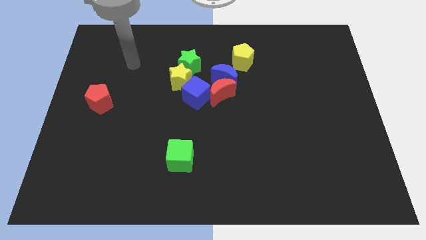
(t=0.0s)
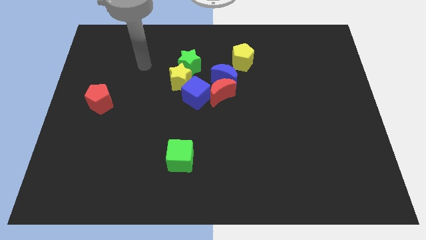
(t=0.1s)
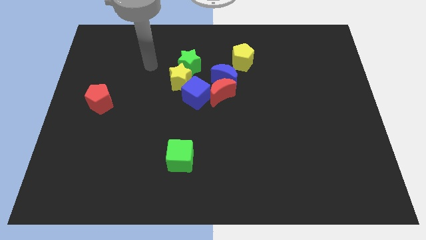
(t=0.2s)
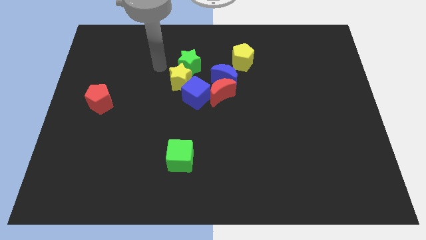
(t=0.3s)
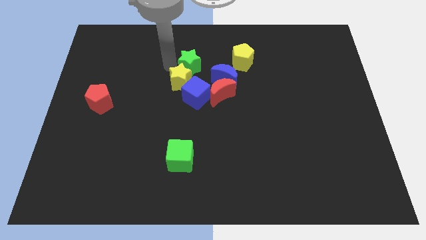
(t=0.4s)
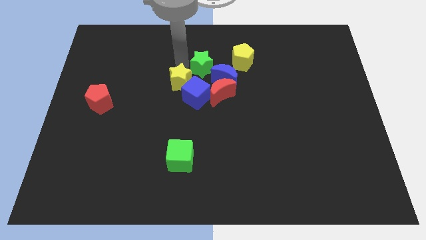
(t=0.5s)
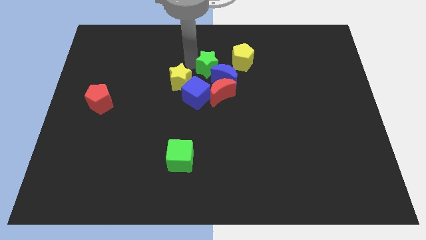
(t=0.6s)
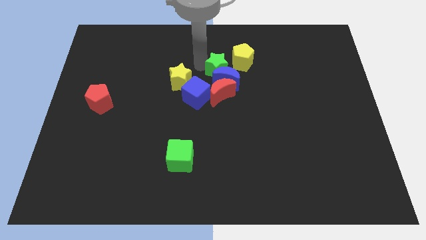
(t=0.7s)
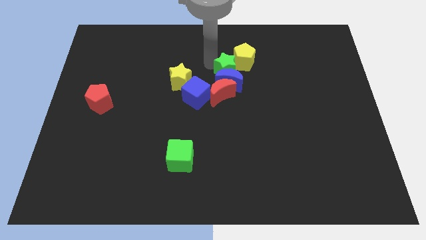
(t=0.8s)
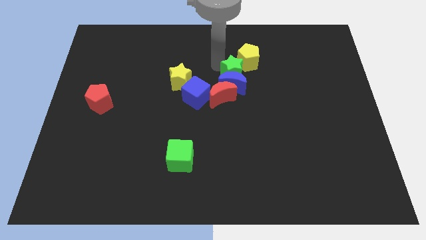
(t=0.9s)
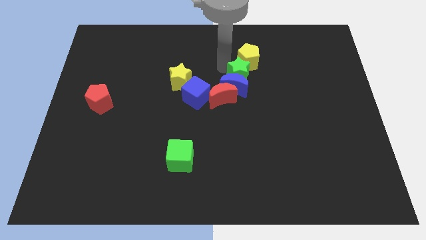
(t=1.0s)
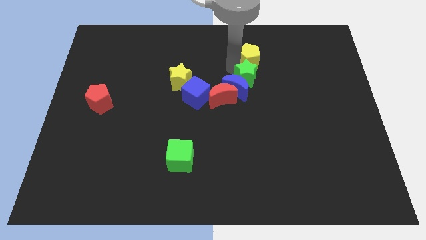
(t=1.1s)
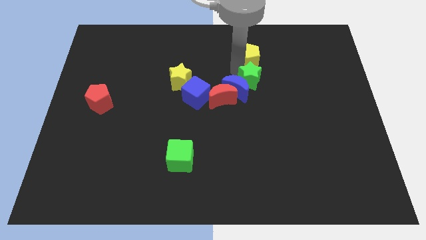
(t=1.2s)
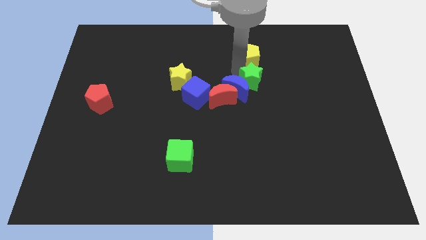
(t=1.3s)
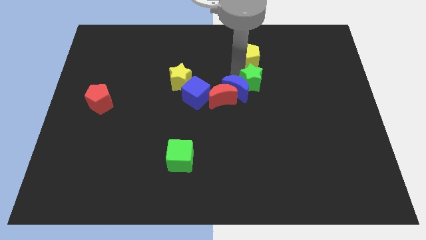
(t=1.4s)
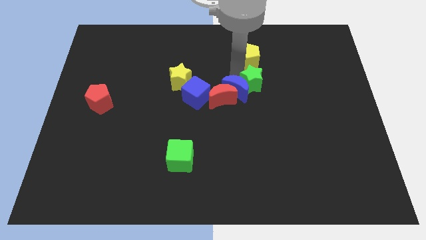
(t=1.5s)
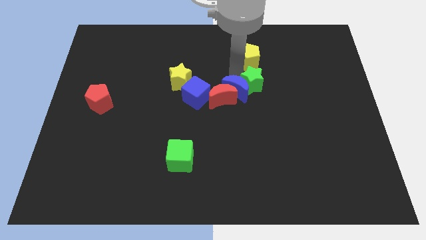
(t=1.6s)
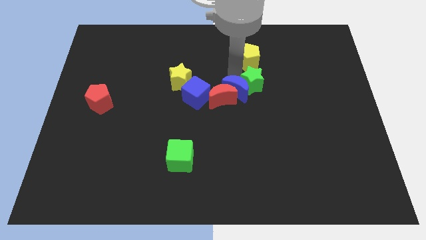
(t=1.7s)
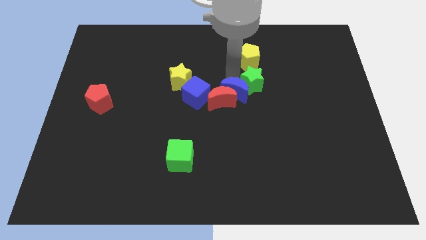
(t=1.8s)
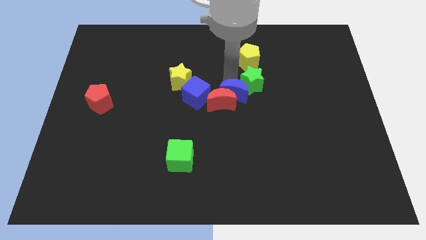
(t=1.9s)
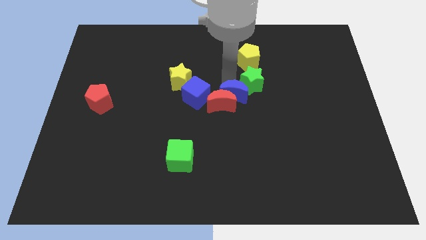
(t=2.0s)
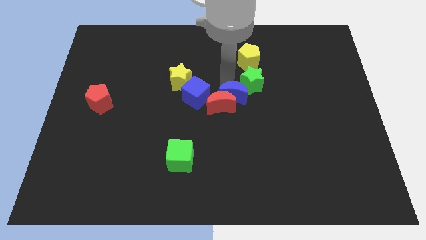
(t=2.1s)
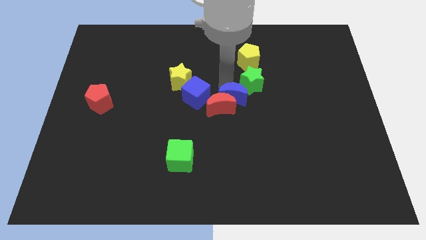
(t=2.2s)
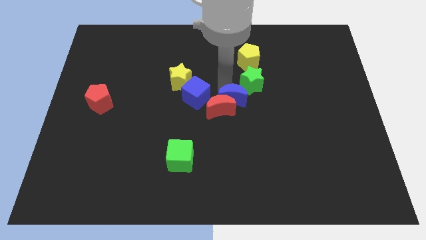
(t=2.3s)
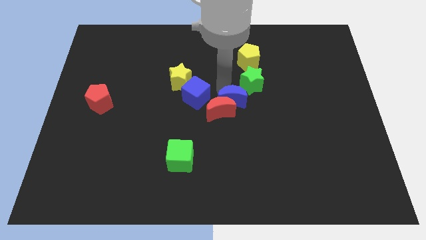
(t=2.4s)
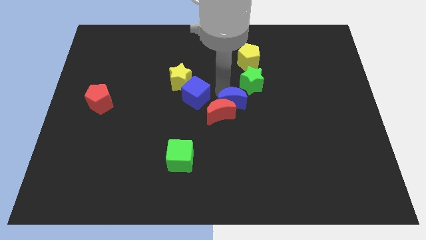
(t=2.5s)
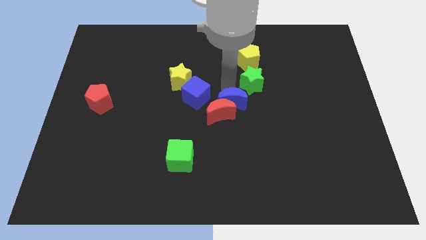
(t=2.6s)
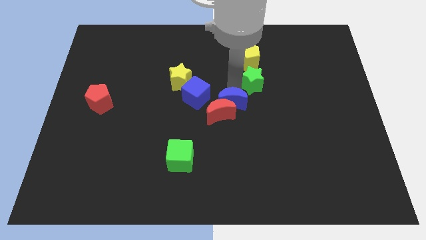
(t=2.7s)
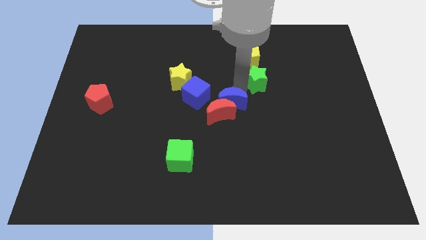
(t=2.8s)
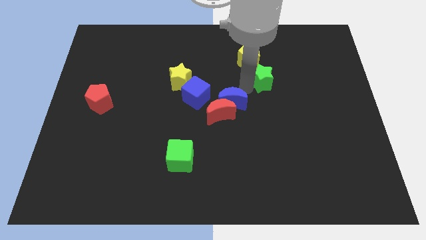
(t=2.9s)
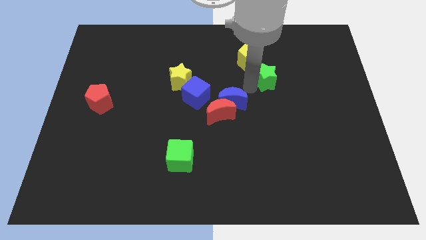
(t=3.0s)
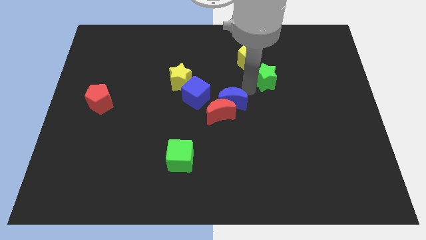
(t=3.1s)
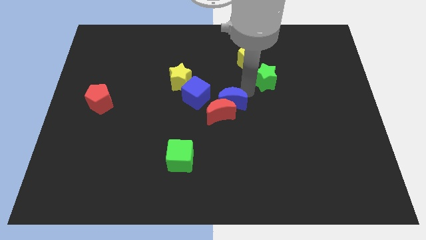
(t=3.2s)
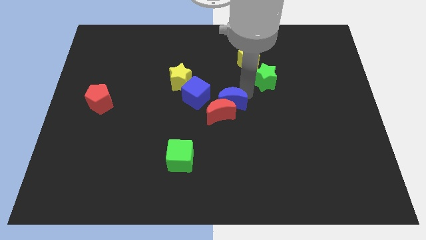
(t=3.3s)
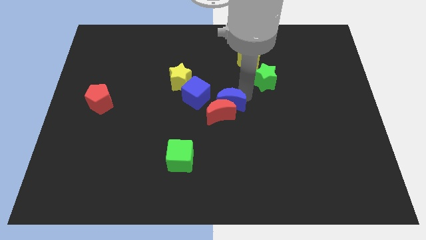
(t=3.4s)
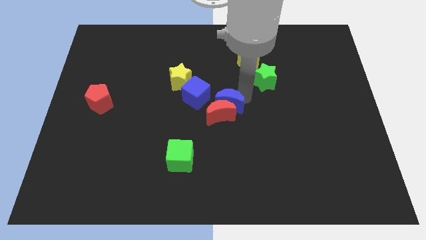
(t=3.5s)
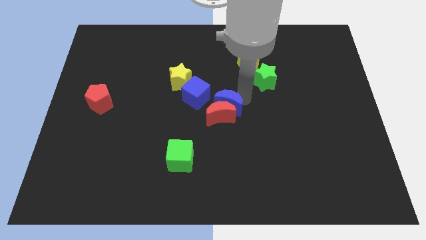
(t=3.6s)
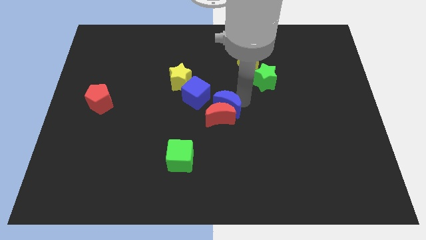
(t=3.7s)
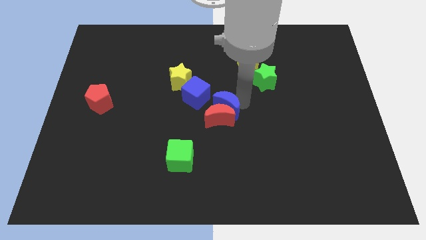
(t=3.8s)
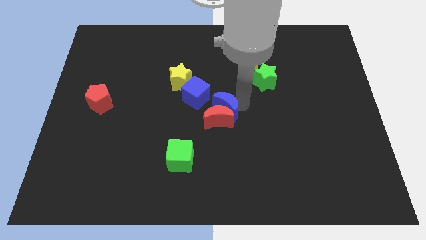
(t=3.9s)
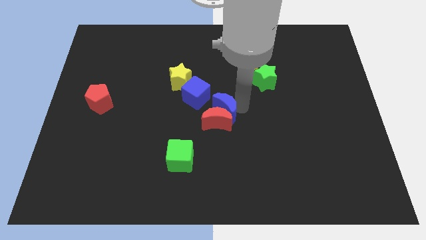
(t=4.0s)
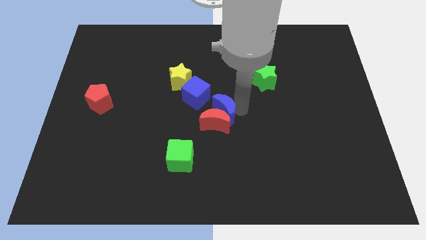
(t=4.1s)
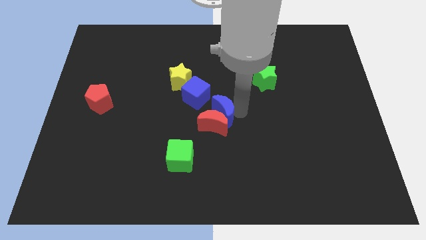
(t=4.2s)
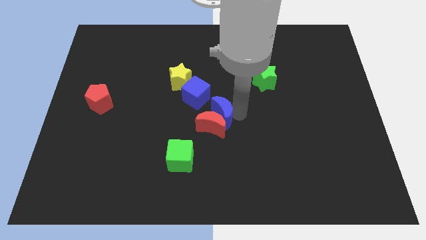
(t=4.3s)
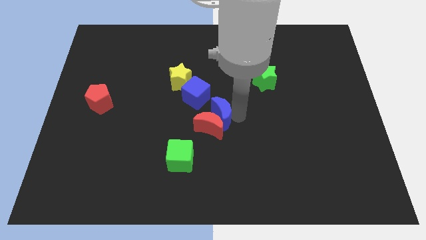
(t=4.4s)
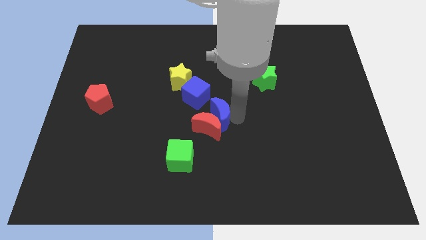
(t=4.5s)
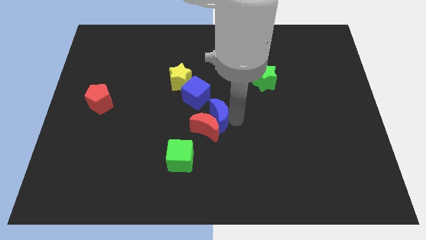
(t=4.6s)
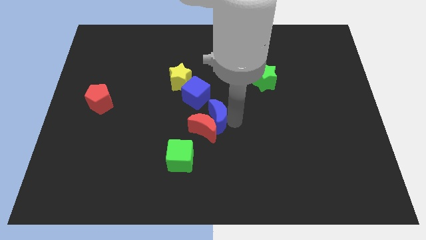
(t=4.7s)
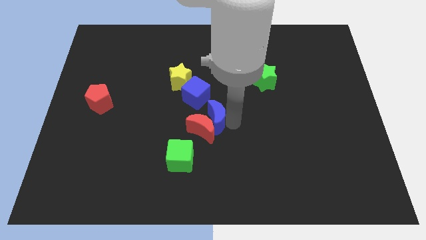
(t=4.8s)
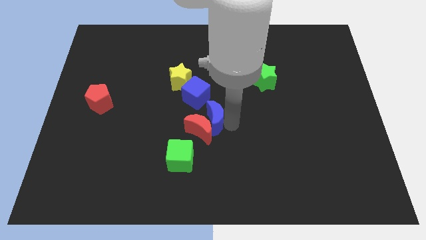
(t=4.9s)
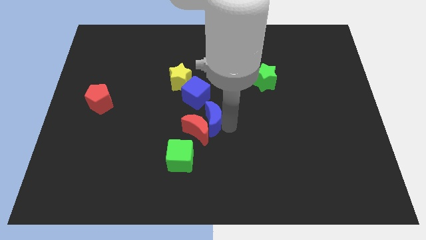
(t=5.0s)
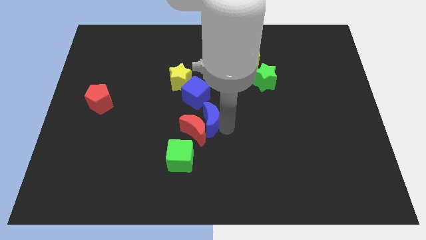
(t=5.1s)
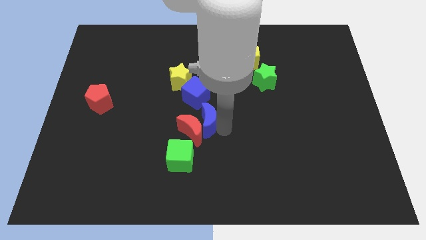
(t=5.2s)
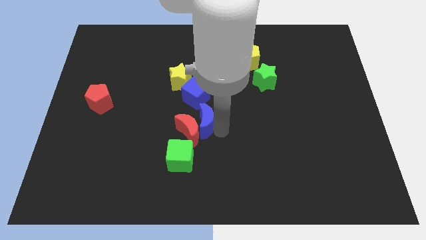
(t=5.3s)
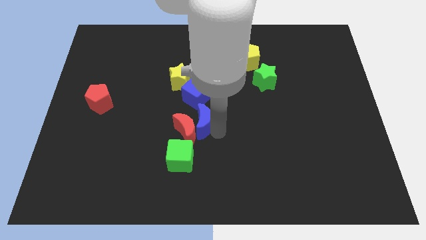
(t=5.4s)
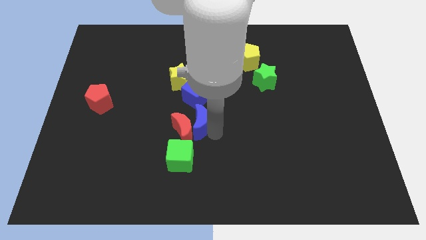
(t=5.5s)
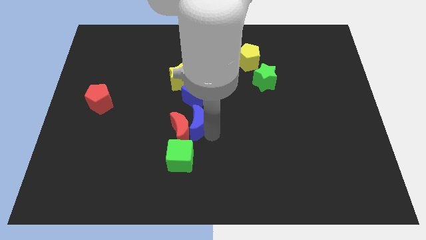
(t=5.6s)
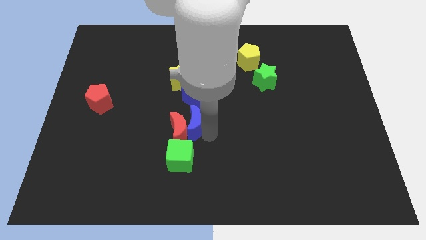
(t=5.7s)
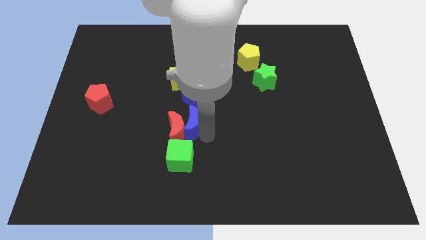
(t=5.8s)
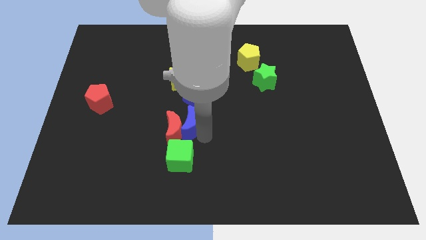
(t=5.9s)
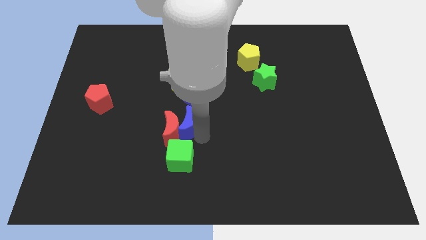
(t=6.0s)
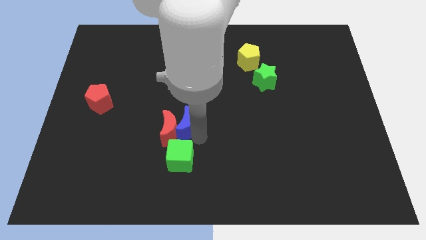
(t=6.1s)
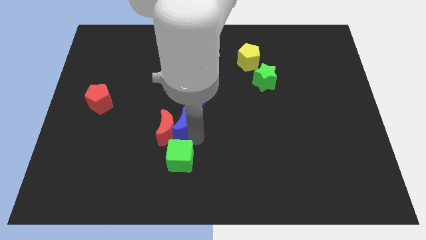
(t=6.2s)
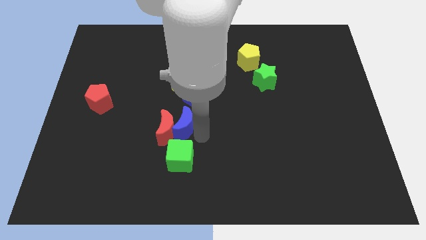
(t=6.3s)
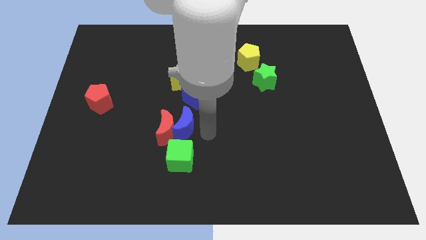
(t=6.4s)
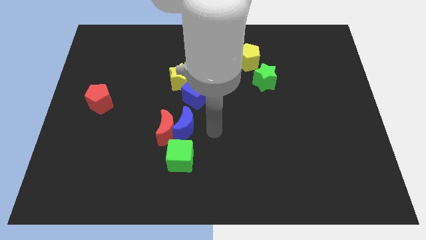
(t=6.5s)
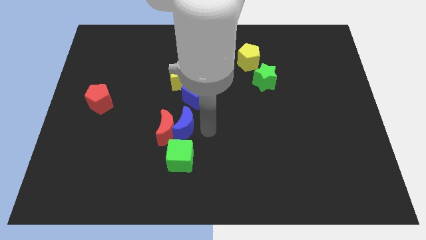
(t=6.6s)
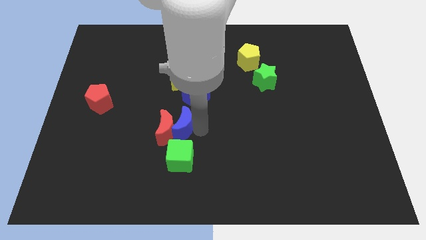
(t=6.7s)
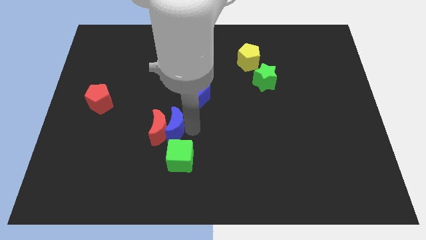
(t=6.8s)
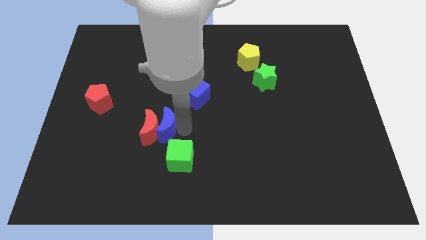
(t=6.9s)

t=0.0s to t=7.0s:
move the blue moon downwards and then left

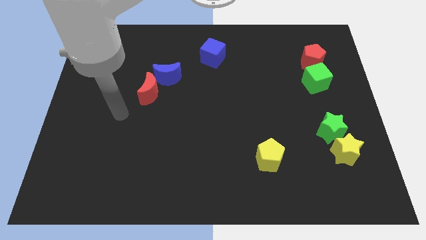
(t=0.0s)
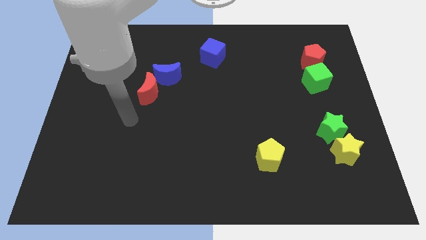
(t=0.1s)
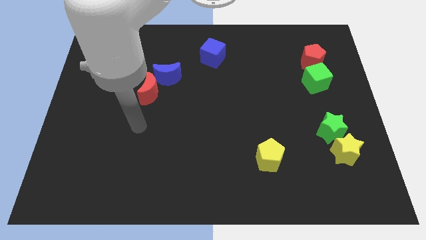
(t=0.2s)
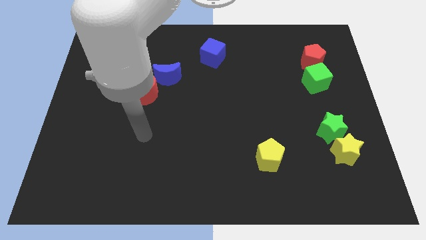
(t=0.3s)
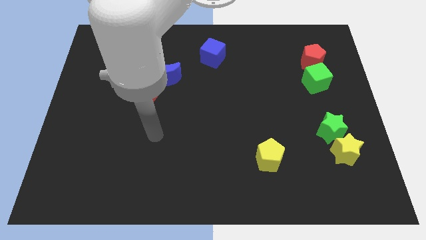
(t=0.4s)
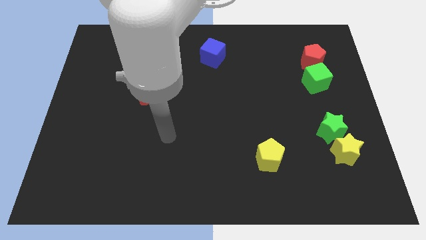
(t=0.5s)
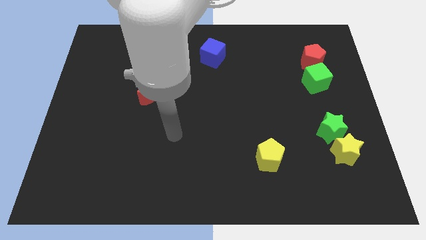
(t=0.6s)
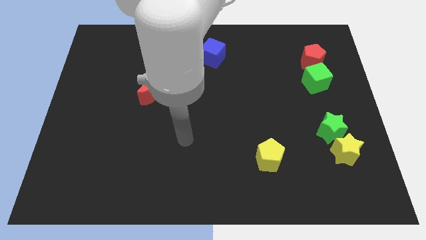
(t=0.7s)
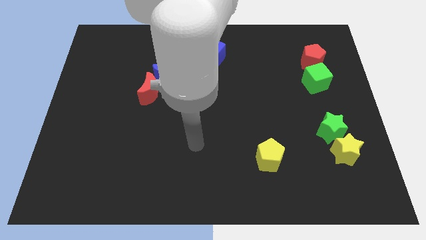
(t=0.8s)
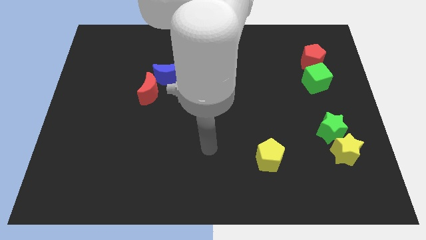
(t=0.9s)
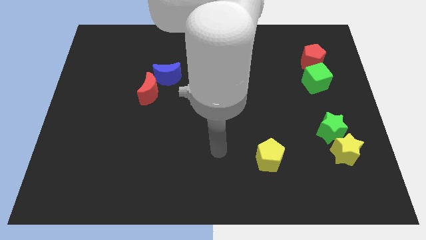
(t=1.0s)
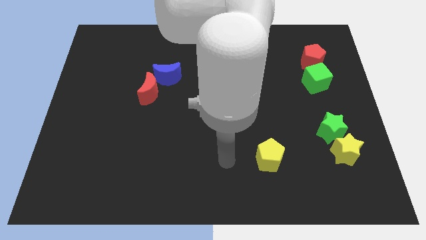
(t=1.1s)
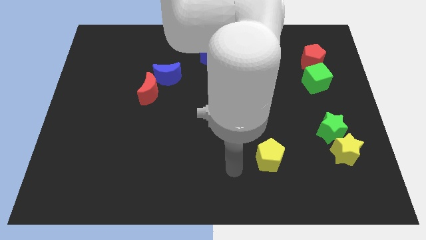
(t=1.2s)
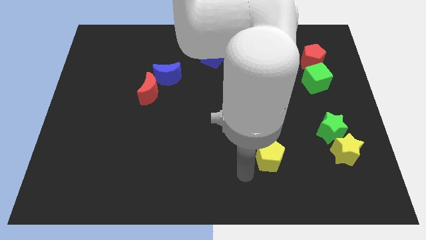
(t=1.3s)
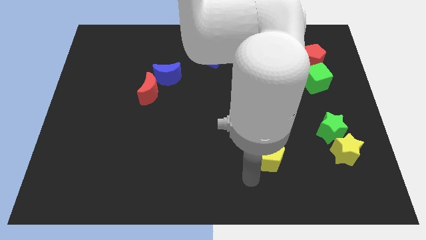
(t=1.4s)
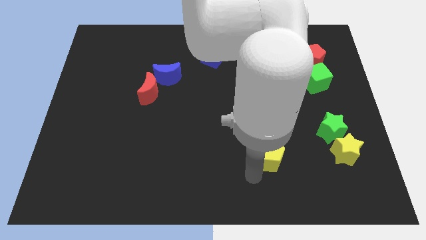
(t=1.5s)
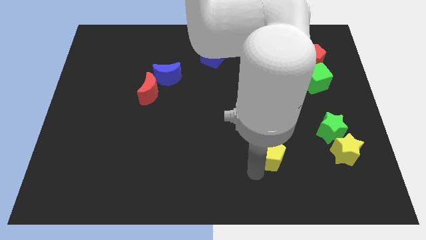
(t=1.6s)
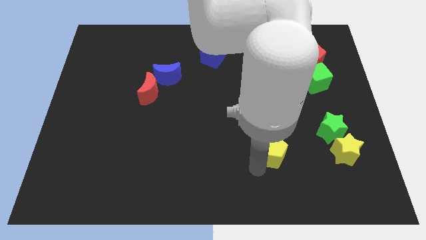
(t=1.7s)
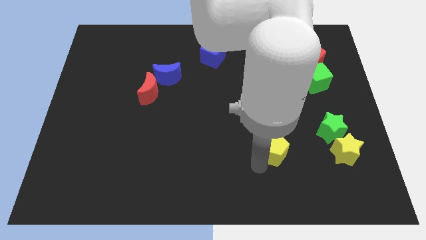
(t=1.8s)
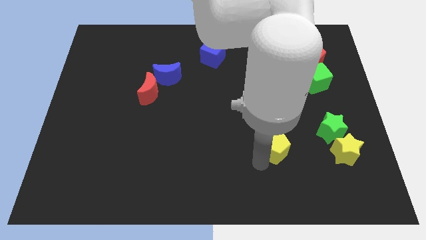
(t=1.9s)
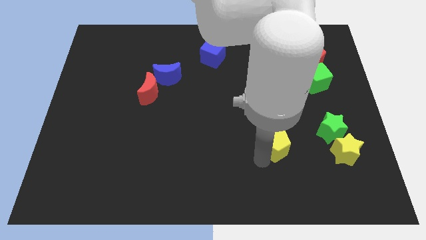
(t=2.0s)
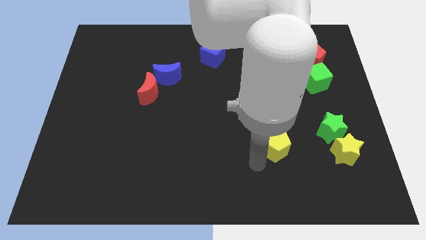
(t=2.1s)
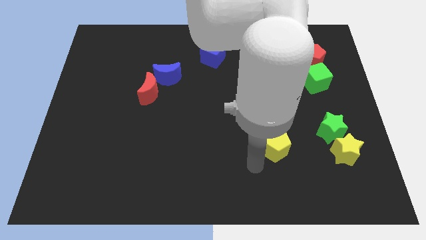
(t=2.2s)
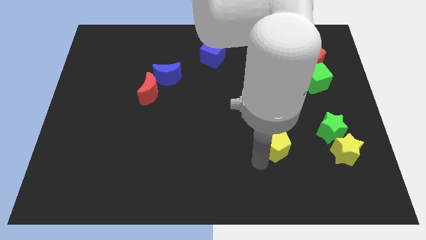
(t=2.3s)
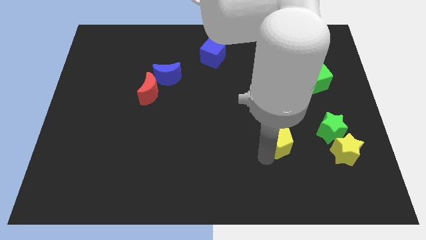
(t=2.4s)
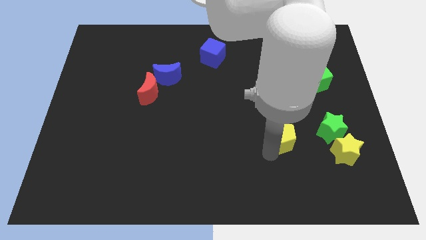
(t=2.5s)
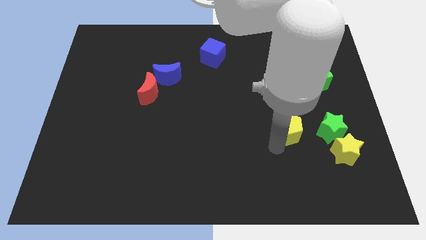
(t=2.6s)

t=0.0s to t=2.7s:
push the yellow pentagon slightly upwards and right
